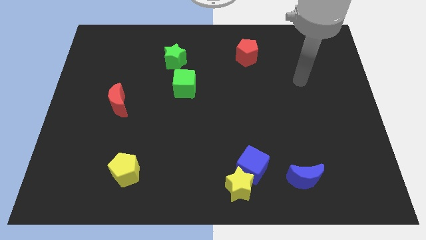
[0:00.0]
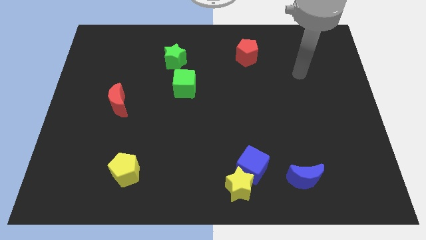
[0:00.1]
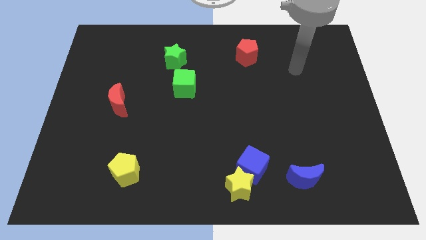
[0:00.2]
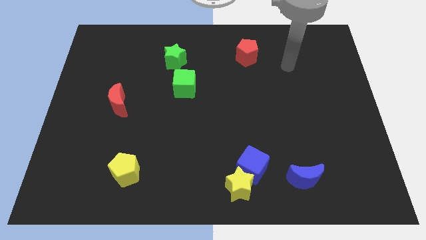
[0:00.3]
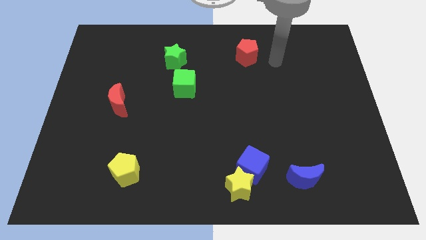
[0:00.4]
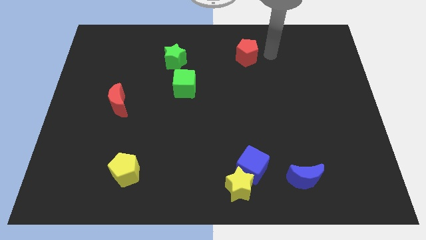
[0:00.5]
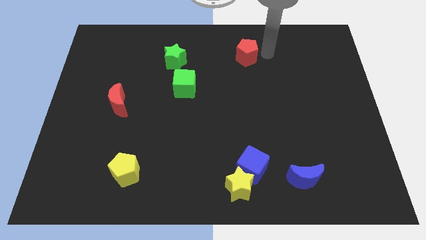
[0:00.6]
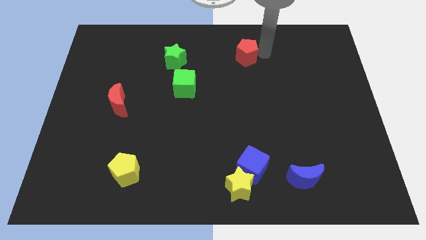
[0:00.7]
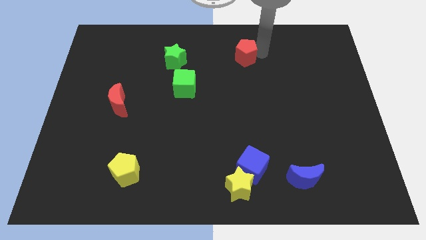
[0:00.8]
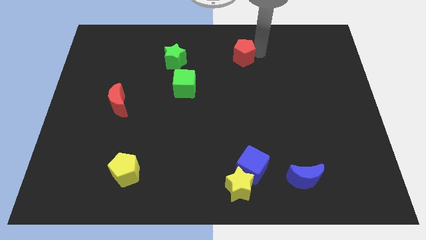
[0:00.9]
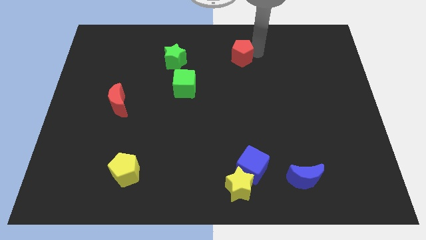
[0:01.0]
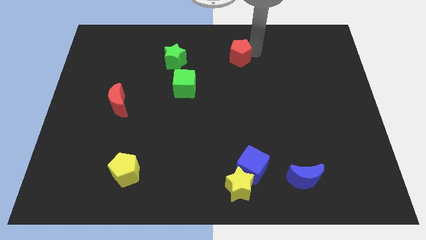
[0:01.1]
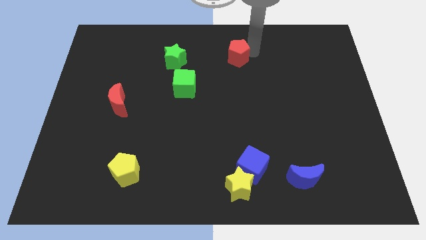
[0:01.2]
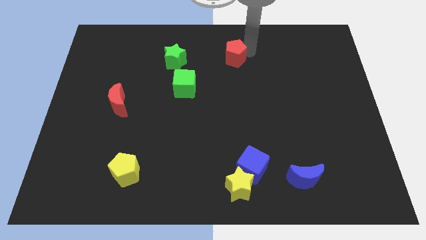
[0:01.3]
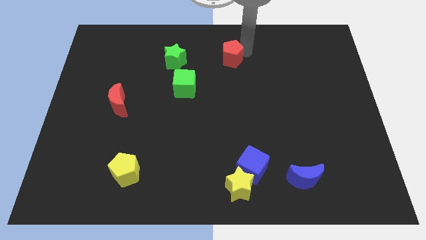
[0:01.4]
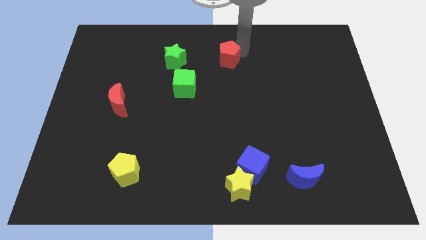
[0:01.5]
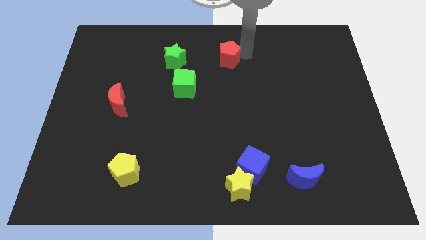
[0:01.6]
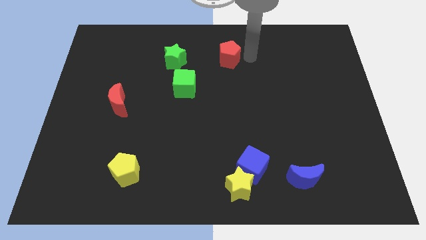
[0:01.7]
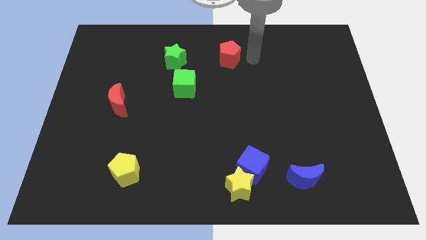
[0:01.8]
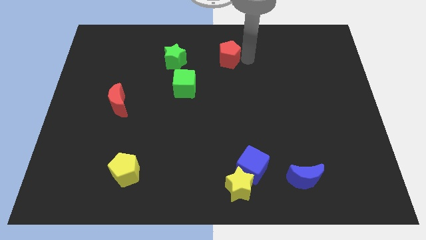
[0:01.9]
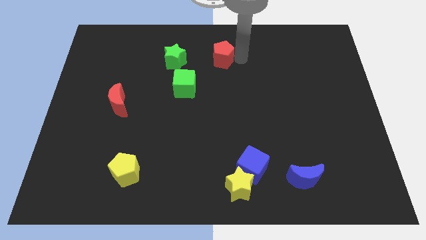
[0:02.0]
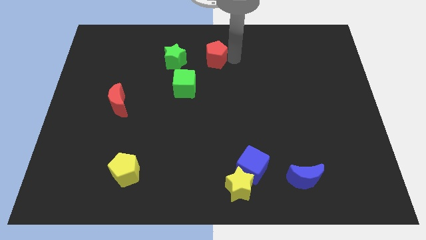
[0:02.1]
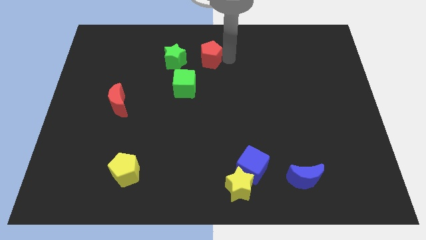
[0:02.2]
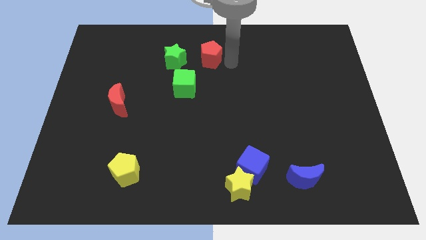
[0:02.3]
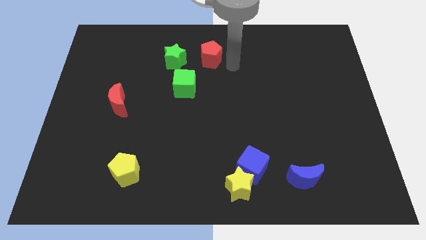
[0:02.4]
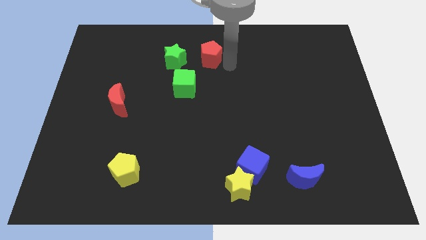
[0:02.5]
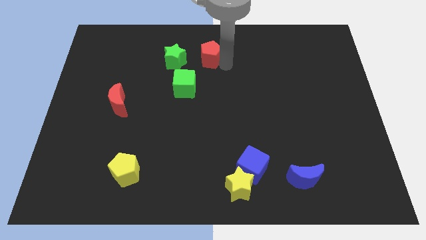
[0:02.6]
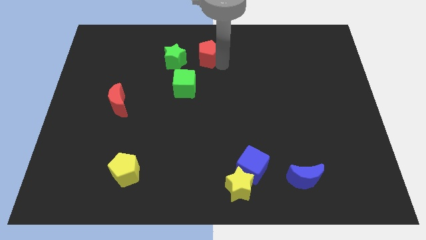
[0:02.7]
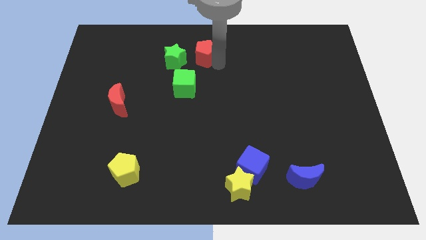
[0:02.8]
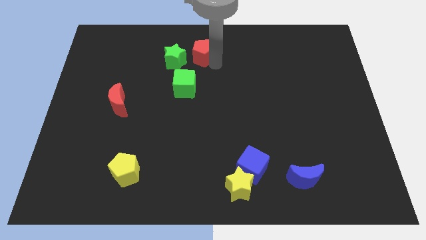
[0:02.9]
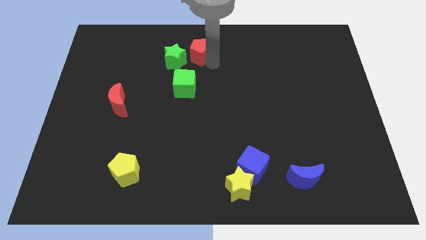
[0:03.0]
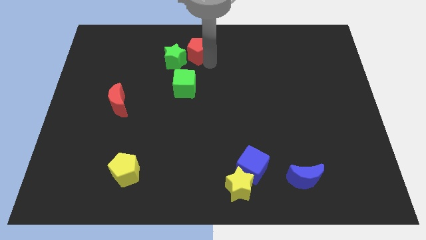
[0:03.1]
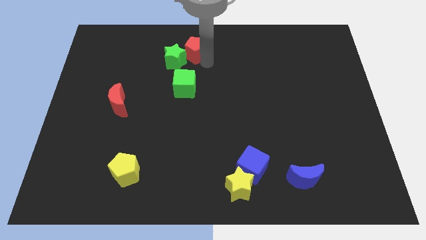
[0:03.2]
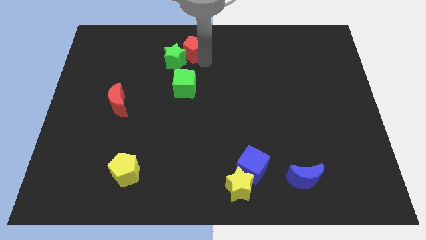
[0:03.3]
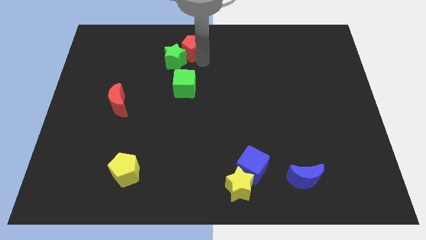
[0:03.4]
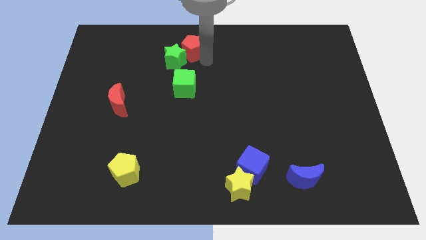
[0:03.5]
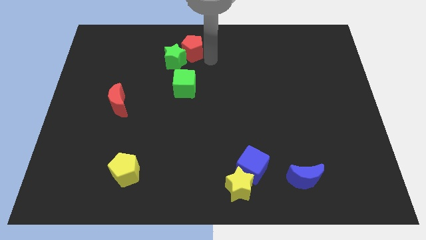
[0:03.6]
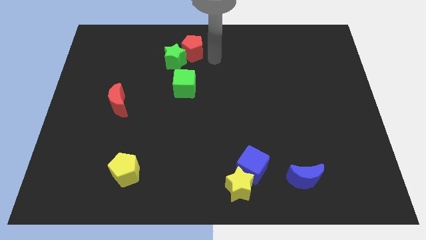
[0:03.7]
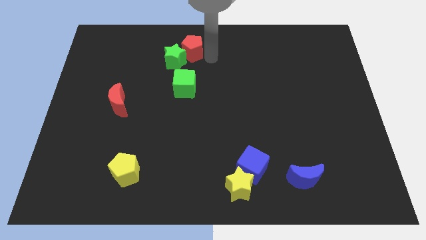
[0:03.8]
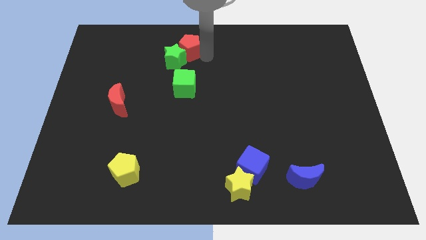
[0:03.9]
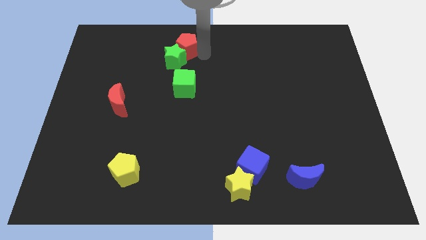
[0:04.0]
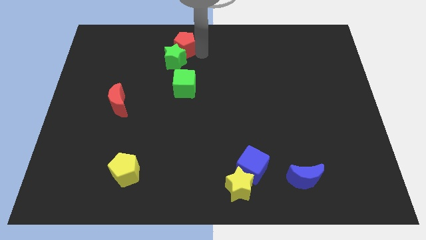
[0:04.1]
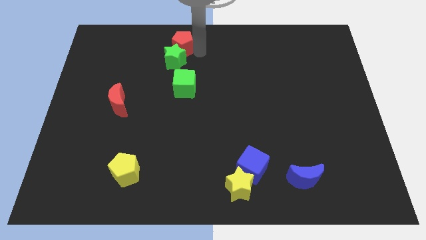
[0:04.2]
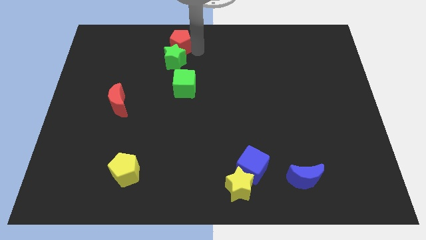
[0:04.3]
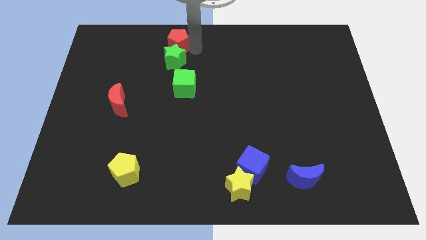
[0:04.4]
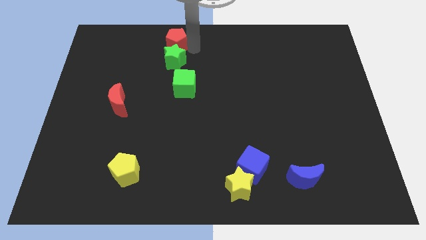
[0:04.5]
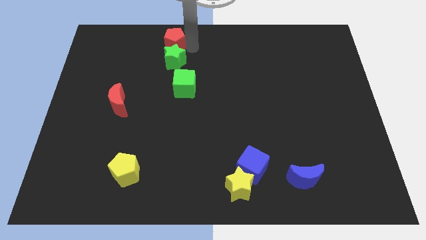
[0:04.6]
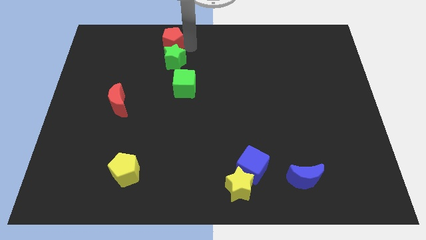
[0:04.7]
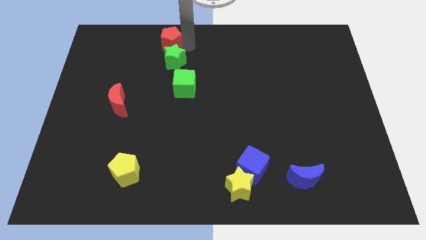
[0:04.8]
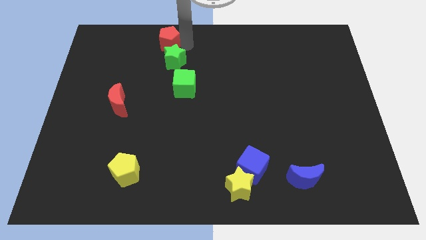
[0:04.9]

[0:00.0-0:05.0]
slide the red pentagon left

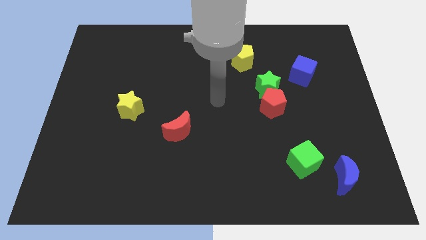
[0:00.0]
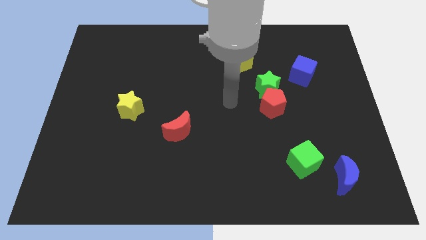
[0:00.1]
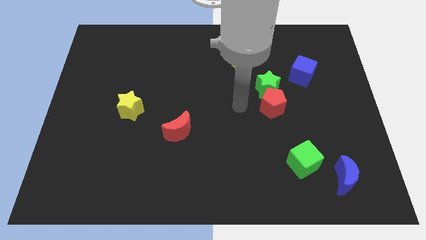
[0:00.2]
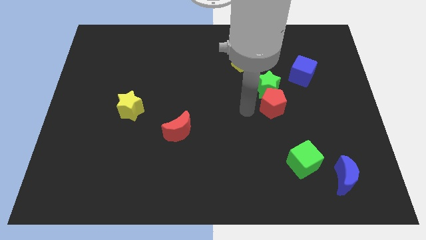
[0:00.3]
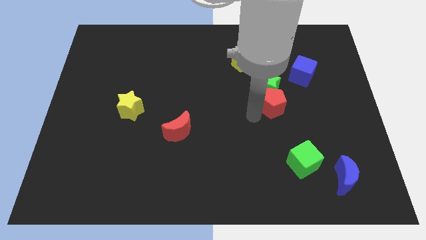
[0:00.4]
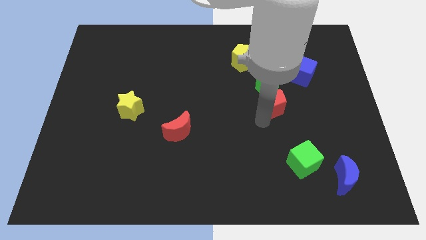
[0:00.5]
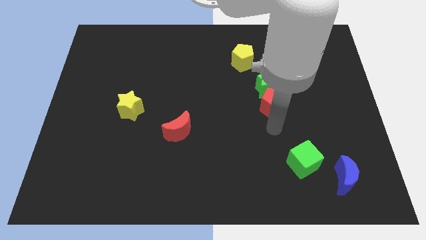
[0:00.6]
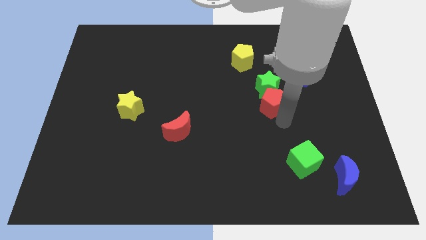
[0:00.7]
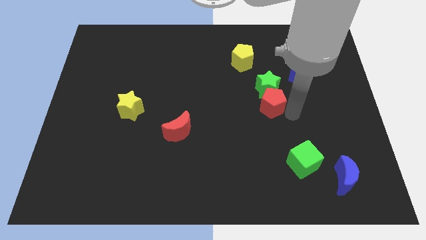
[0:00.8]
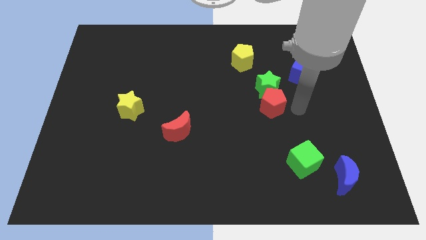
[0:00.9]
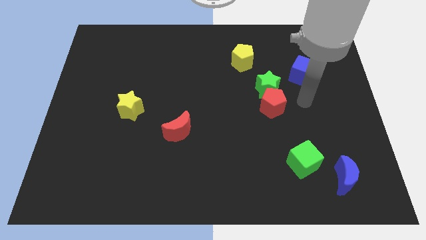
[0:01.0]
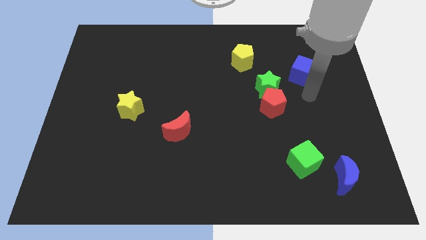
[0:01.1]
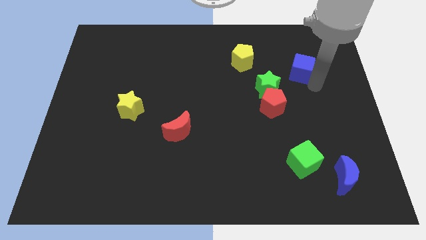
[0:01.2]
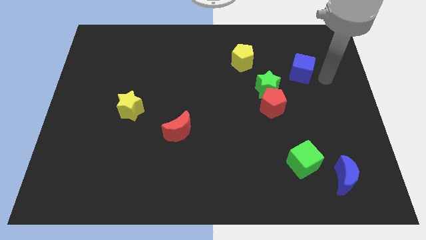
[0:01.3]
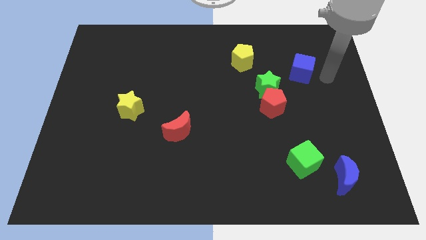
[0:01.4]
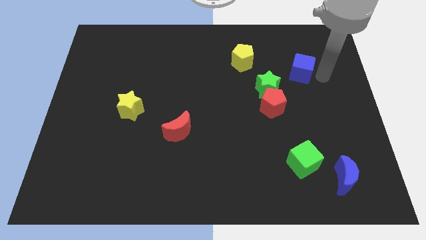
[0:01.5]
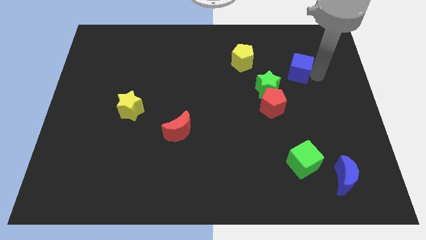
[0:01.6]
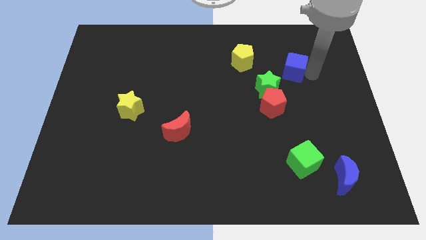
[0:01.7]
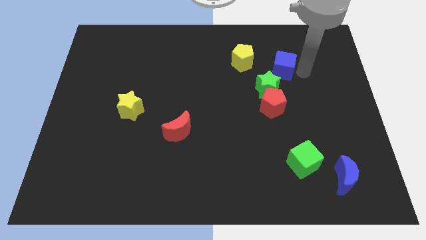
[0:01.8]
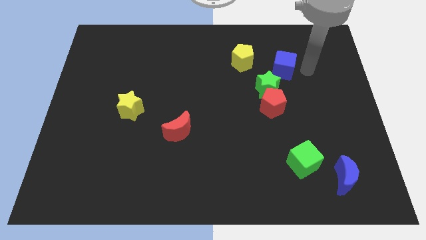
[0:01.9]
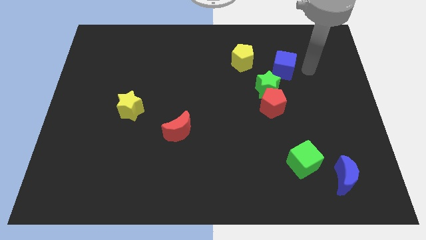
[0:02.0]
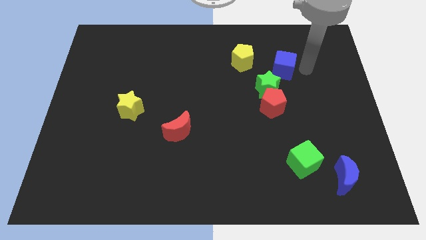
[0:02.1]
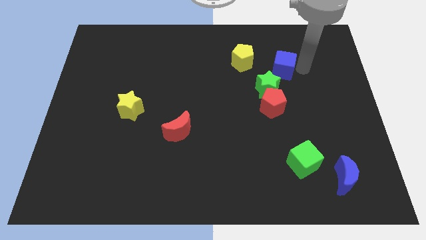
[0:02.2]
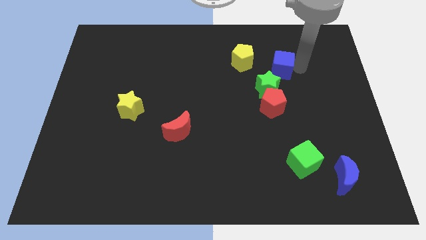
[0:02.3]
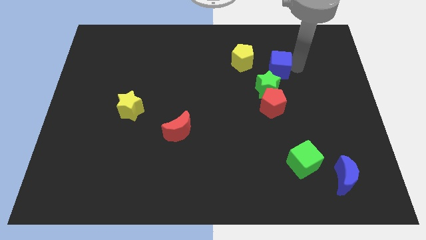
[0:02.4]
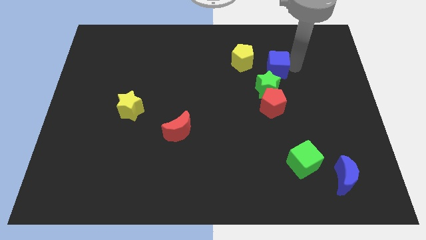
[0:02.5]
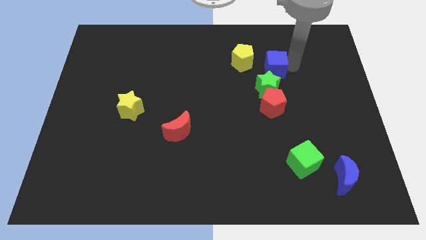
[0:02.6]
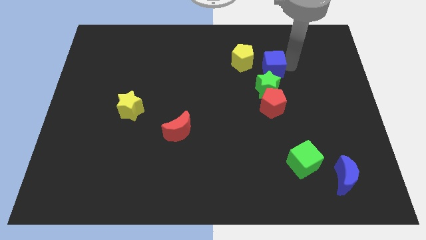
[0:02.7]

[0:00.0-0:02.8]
push the blue cube somewhat to the left
